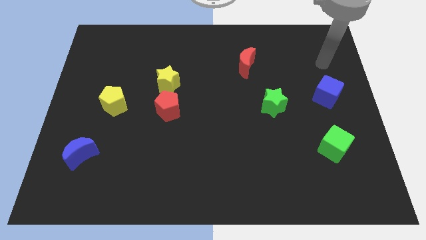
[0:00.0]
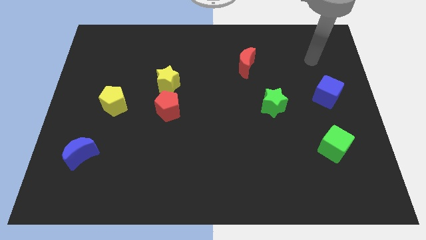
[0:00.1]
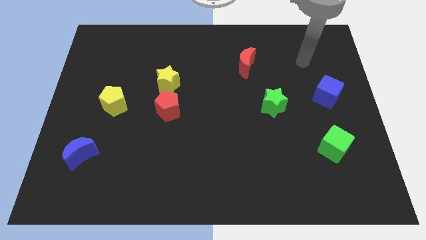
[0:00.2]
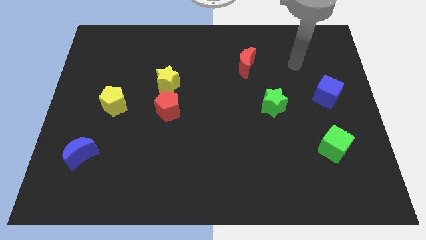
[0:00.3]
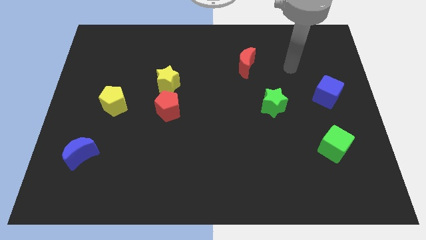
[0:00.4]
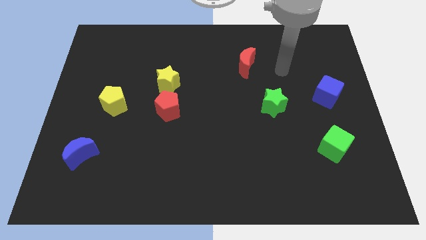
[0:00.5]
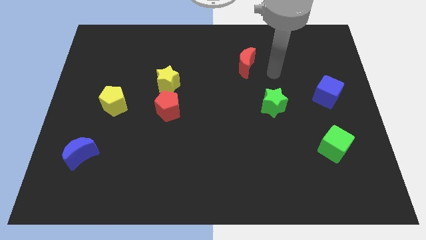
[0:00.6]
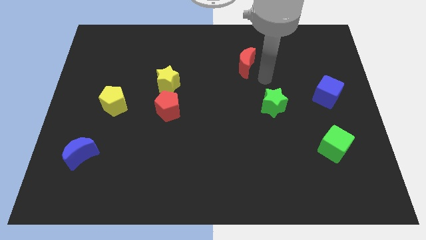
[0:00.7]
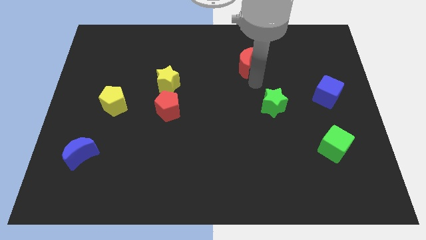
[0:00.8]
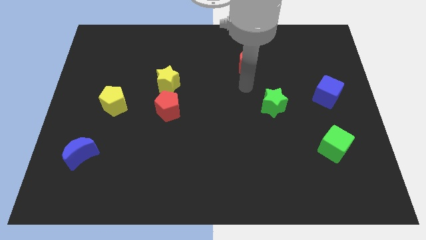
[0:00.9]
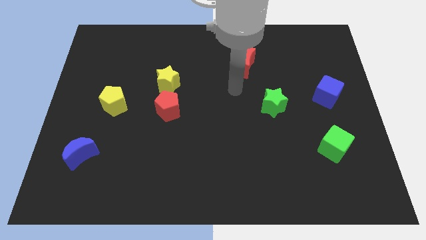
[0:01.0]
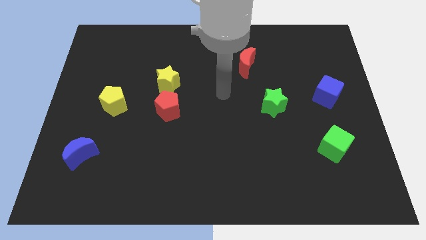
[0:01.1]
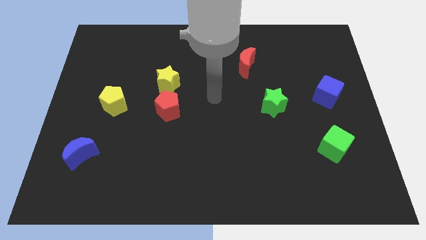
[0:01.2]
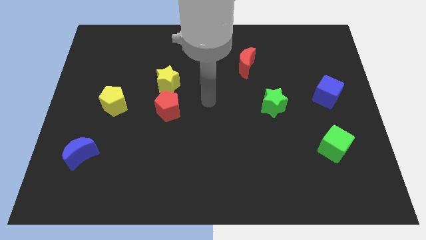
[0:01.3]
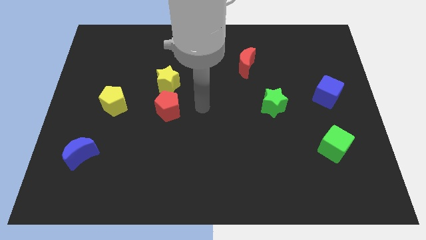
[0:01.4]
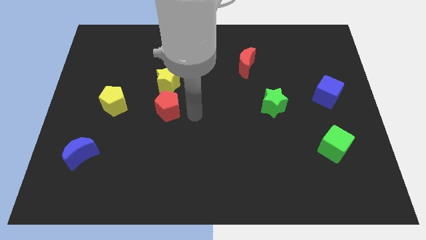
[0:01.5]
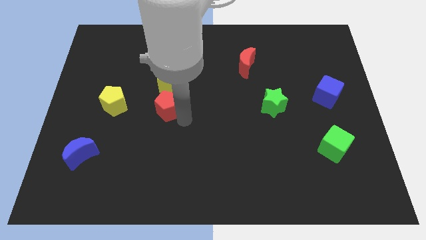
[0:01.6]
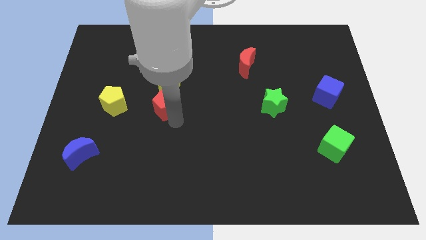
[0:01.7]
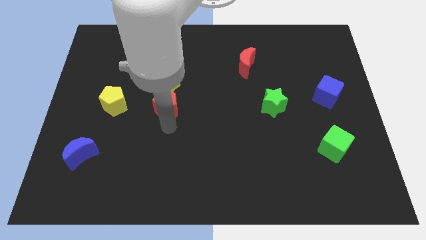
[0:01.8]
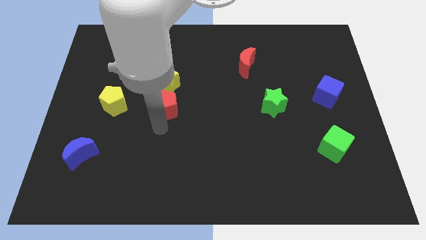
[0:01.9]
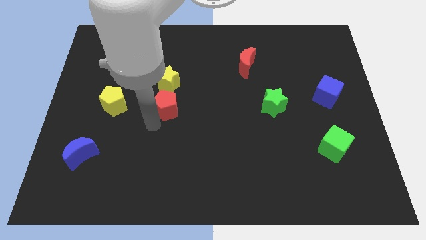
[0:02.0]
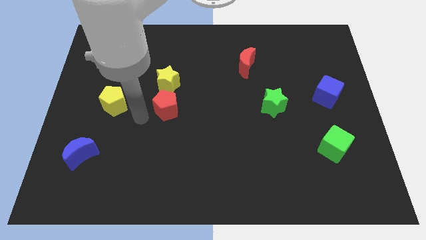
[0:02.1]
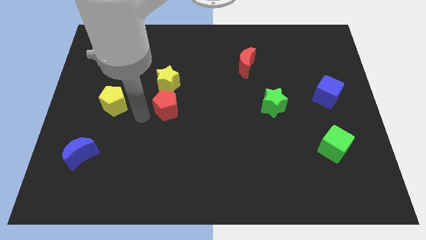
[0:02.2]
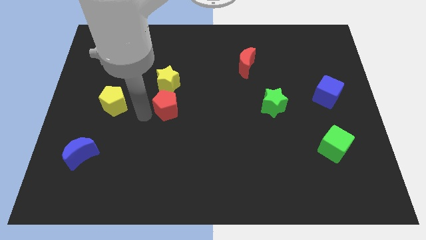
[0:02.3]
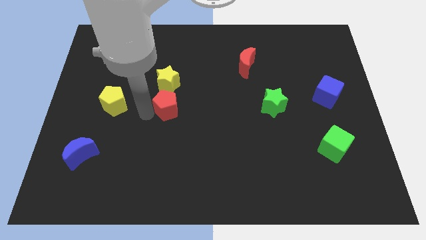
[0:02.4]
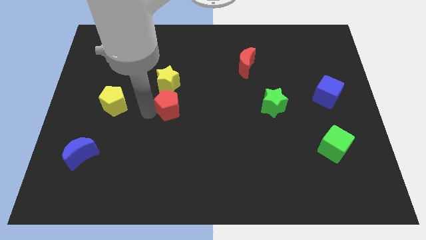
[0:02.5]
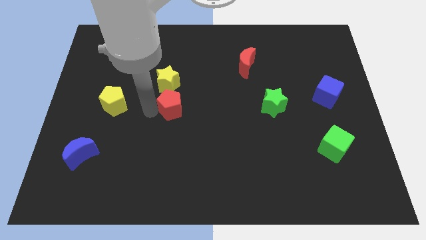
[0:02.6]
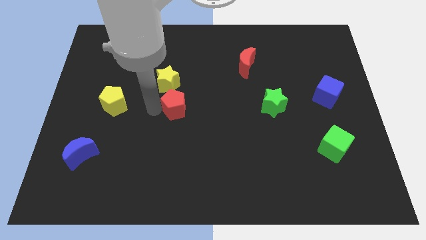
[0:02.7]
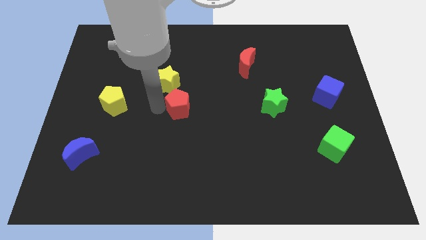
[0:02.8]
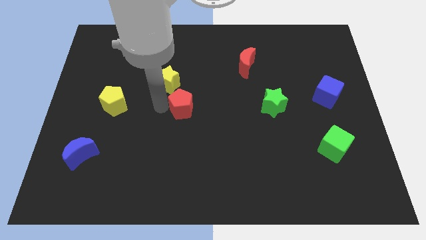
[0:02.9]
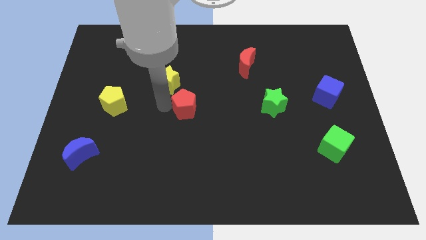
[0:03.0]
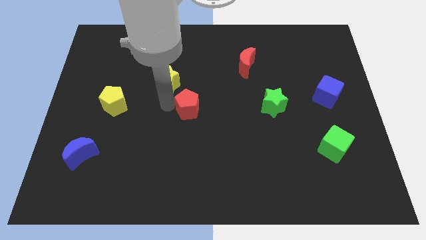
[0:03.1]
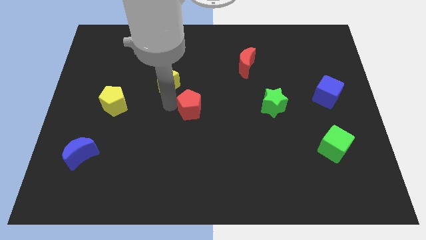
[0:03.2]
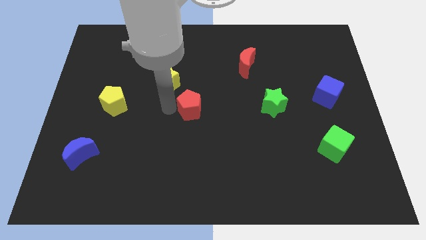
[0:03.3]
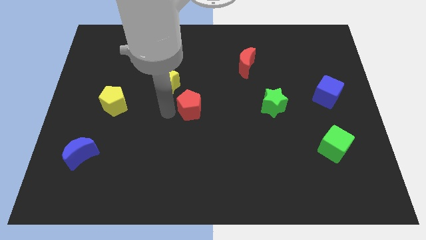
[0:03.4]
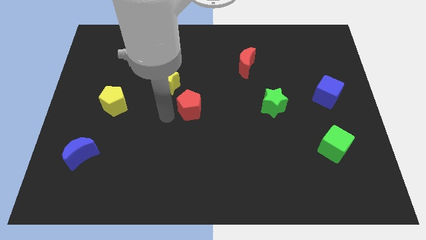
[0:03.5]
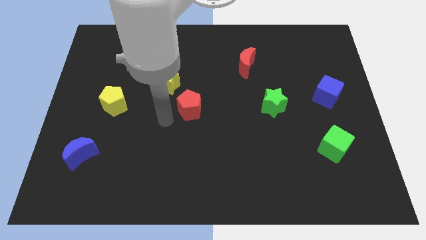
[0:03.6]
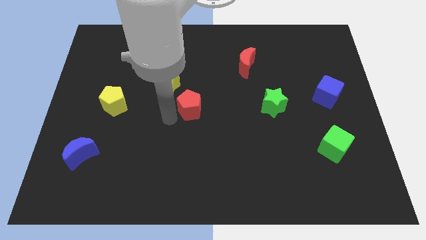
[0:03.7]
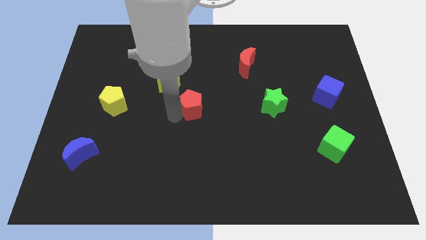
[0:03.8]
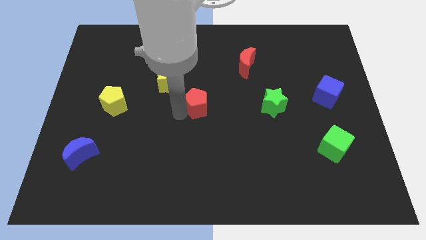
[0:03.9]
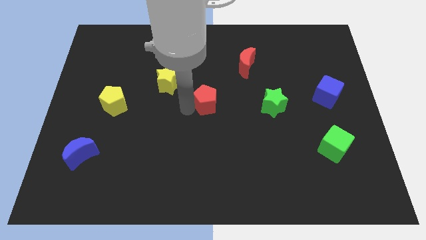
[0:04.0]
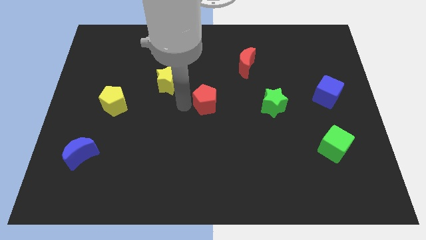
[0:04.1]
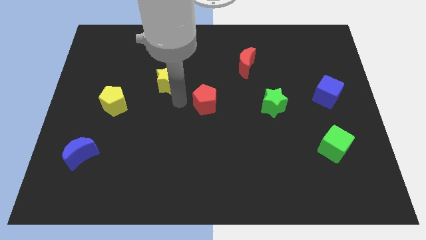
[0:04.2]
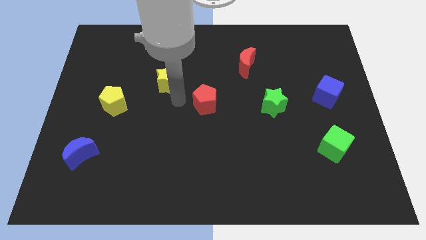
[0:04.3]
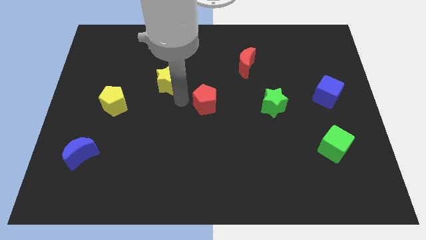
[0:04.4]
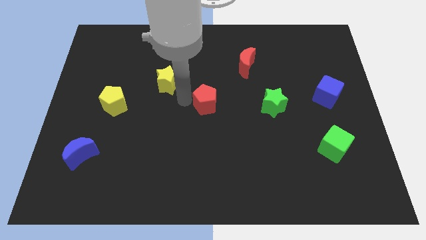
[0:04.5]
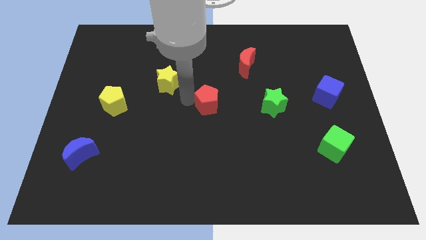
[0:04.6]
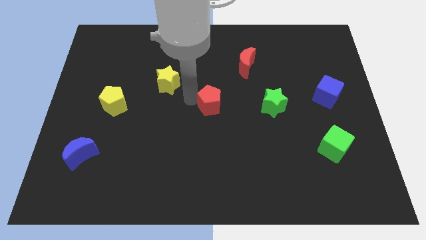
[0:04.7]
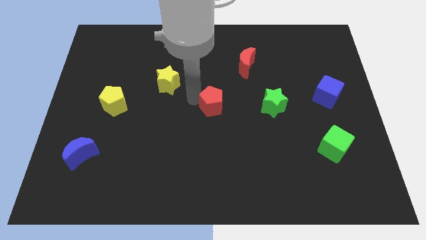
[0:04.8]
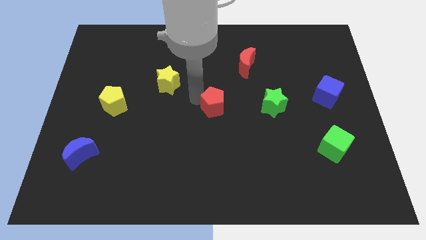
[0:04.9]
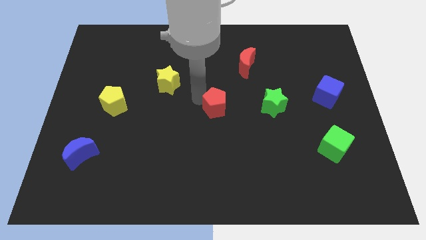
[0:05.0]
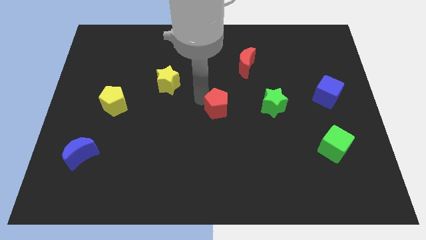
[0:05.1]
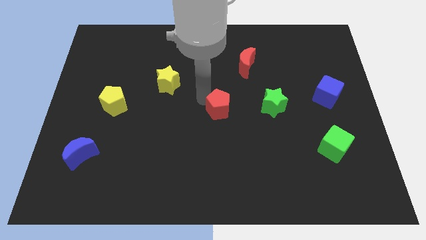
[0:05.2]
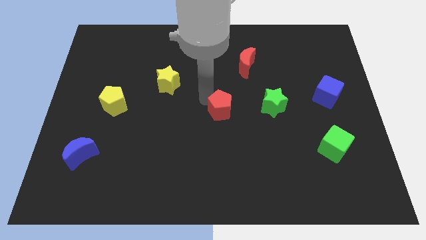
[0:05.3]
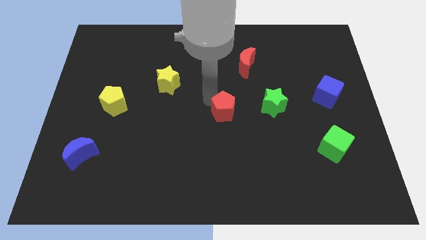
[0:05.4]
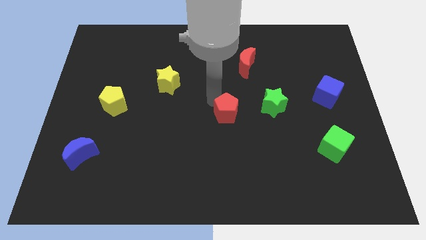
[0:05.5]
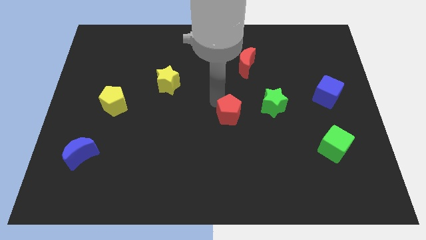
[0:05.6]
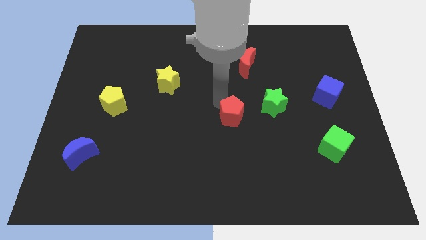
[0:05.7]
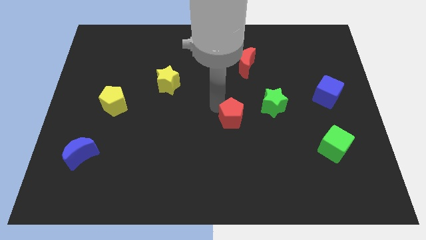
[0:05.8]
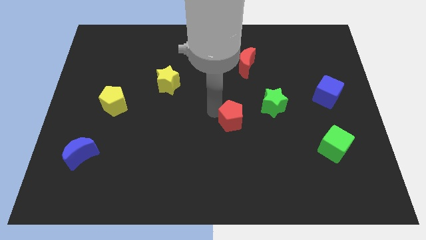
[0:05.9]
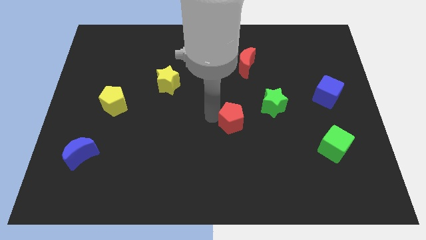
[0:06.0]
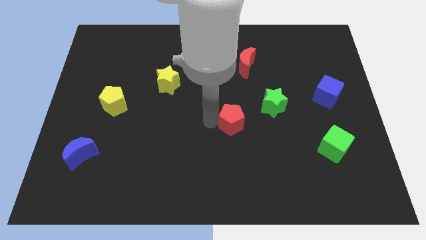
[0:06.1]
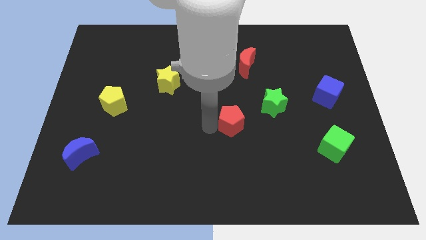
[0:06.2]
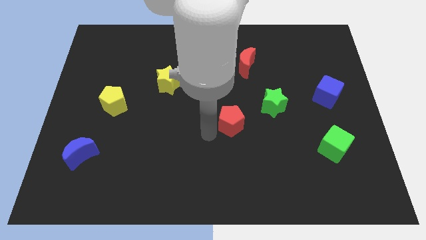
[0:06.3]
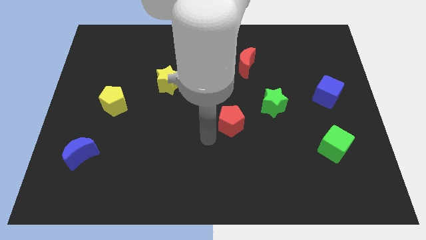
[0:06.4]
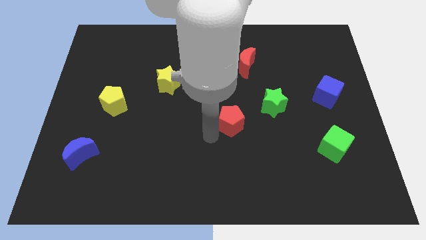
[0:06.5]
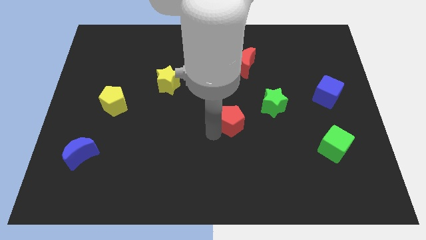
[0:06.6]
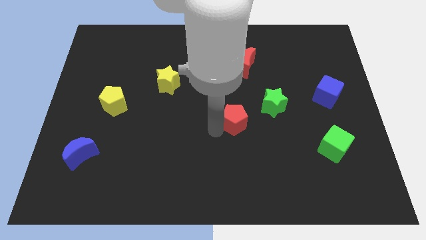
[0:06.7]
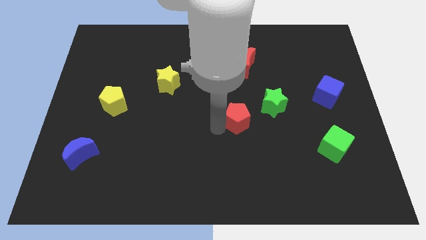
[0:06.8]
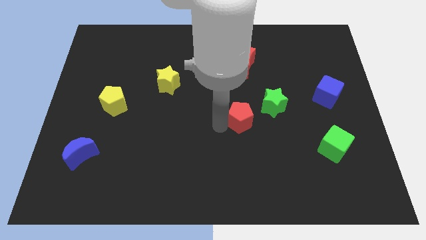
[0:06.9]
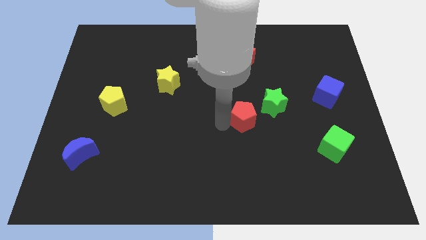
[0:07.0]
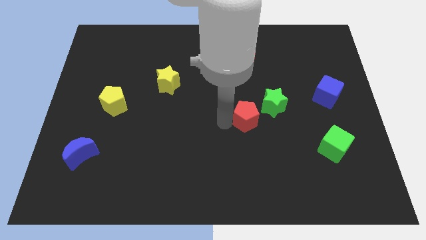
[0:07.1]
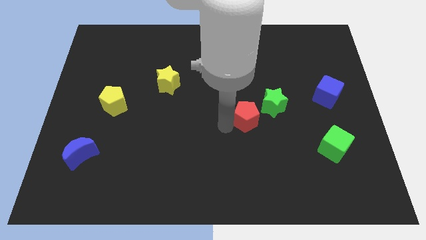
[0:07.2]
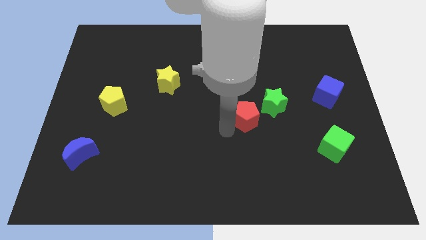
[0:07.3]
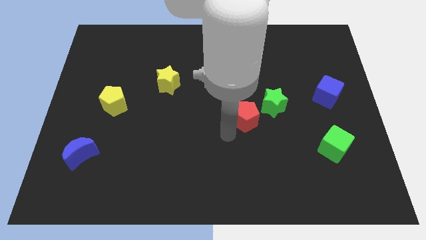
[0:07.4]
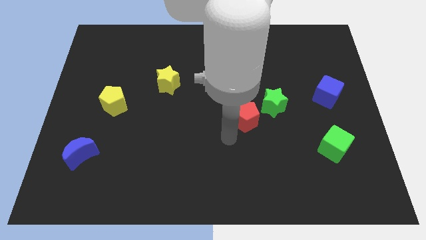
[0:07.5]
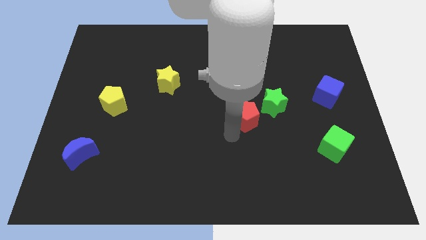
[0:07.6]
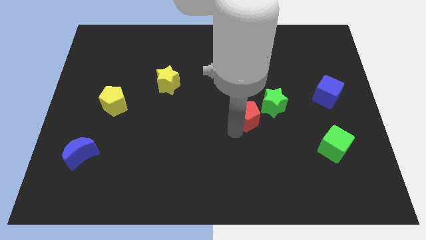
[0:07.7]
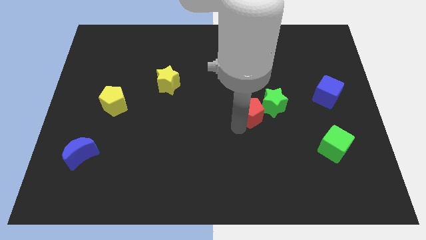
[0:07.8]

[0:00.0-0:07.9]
slide the red pentagon next to the green star
